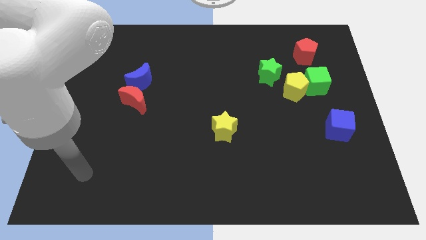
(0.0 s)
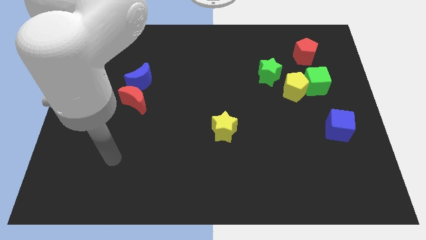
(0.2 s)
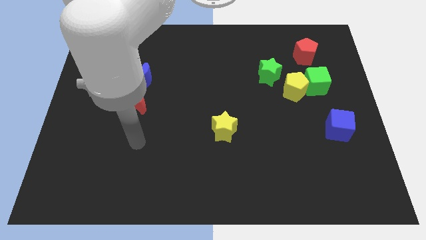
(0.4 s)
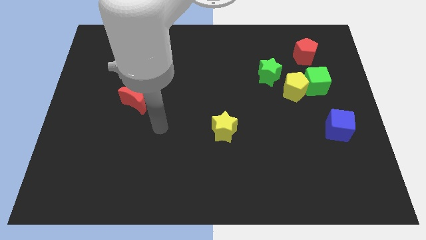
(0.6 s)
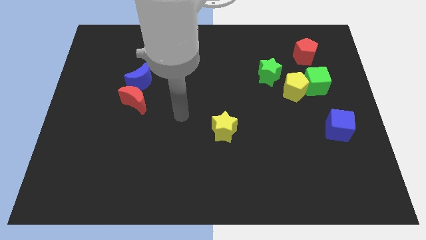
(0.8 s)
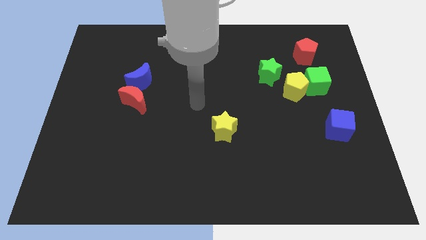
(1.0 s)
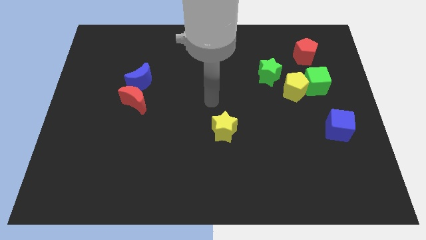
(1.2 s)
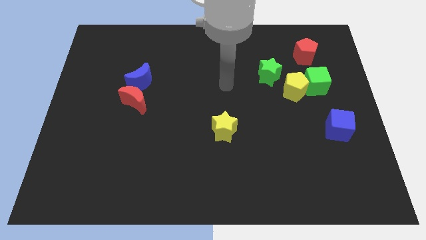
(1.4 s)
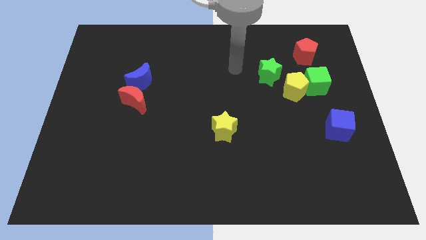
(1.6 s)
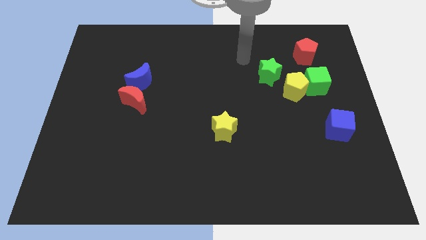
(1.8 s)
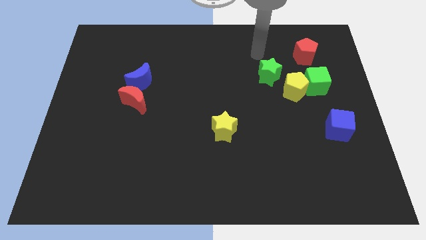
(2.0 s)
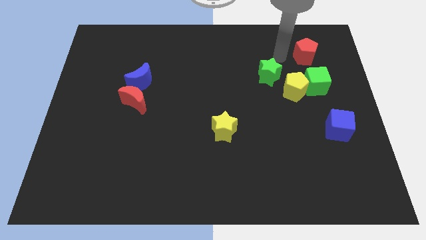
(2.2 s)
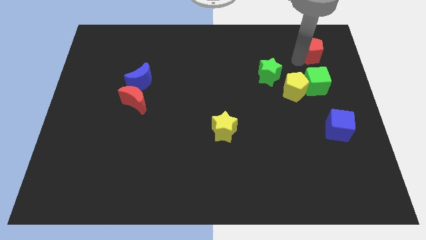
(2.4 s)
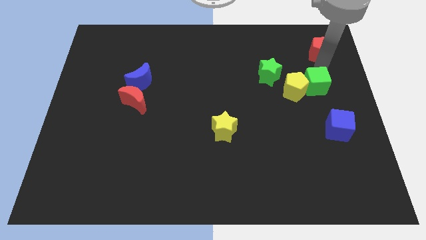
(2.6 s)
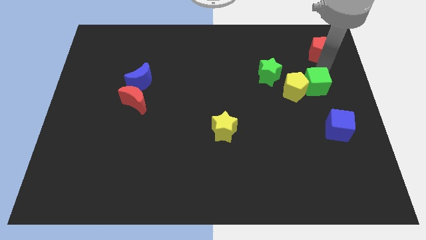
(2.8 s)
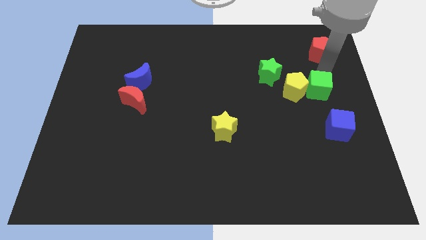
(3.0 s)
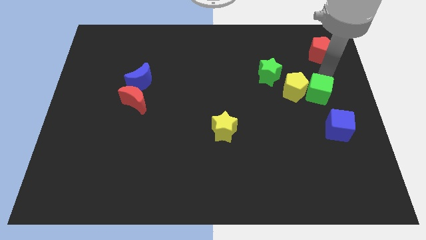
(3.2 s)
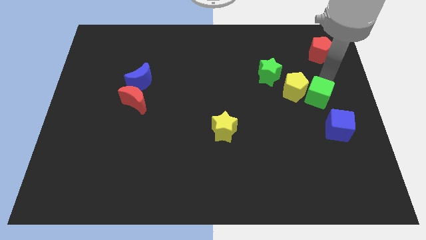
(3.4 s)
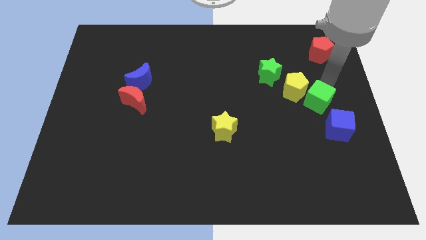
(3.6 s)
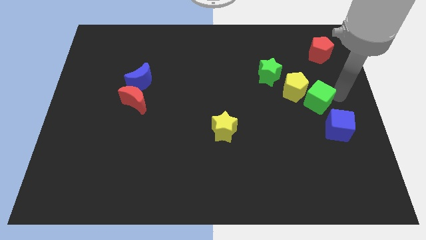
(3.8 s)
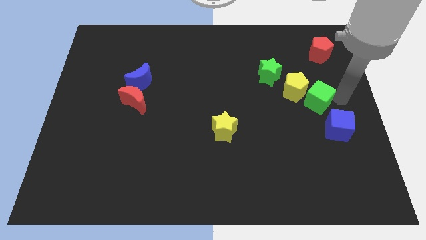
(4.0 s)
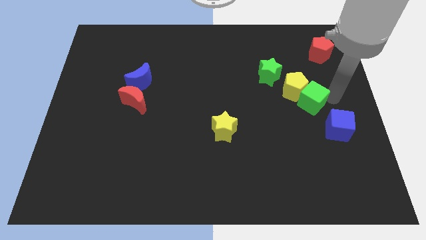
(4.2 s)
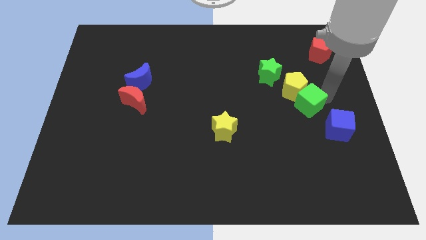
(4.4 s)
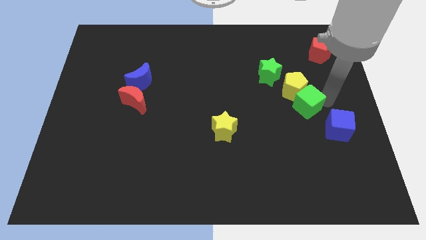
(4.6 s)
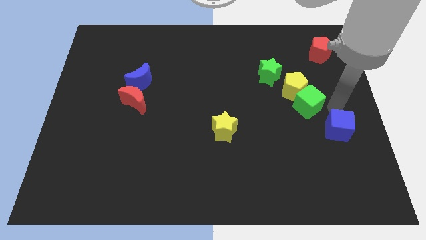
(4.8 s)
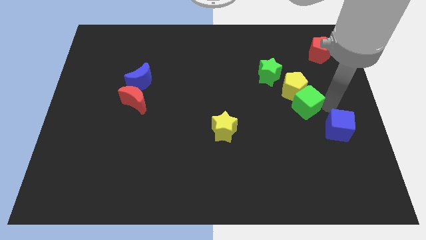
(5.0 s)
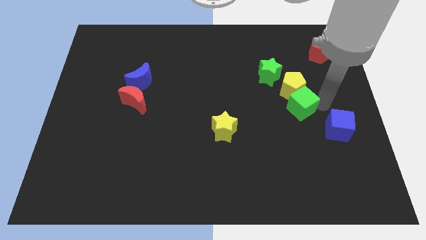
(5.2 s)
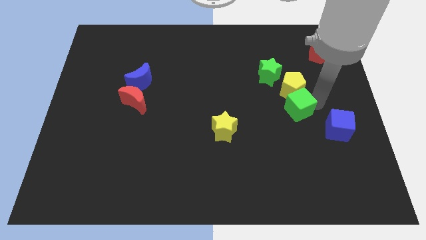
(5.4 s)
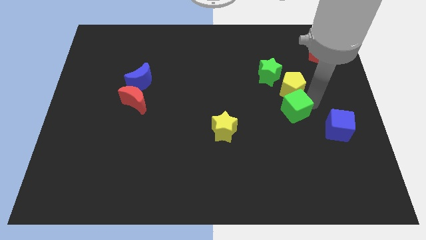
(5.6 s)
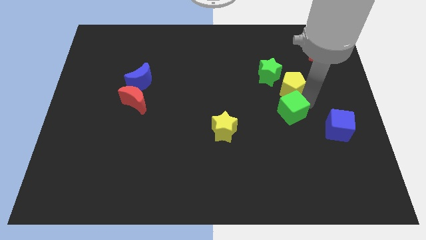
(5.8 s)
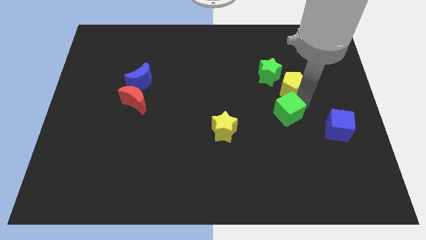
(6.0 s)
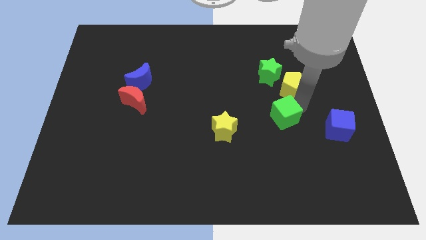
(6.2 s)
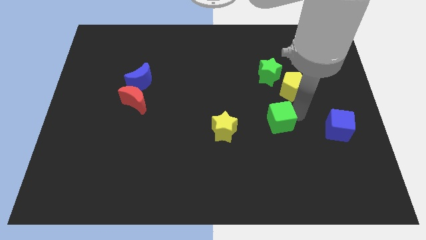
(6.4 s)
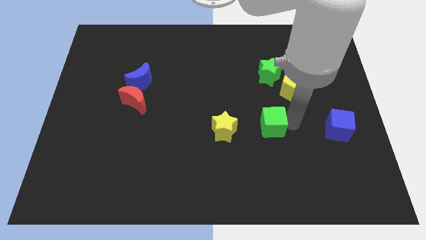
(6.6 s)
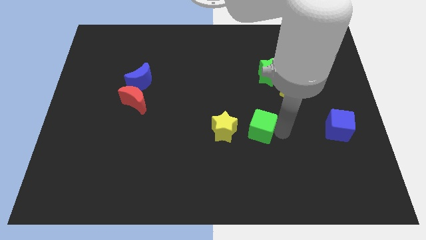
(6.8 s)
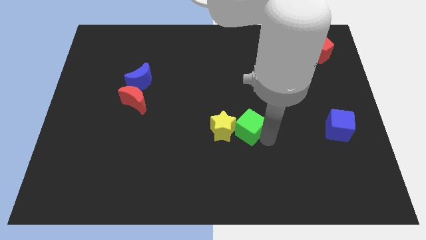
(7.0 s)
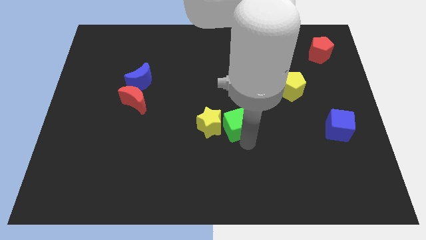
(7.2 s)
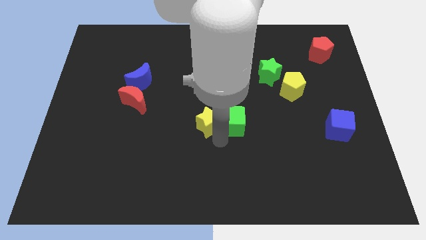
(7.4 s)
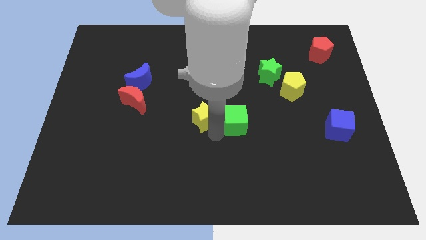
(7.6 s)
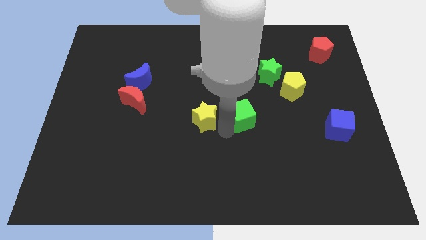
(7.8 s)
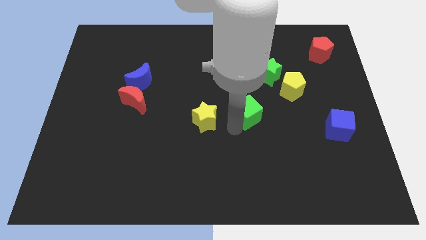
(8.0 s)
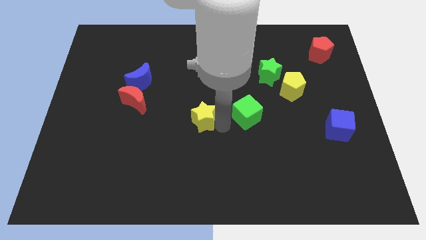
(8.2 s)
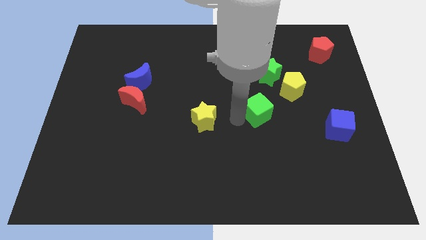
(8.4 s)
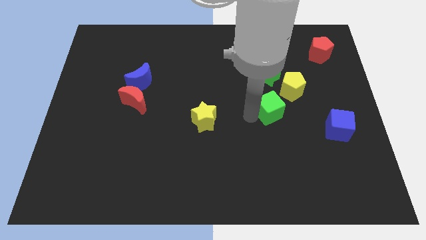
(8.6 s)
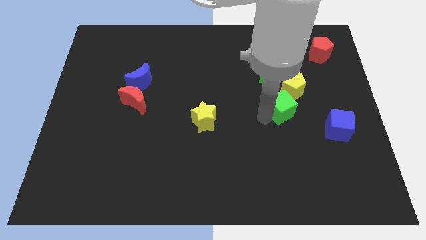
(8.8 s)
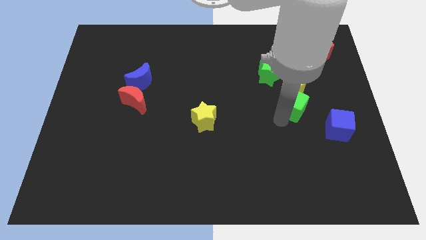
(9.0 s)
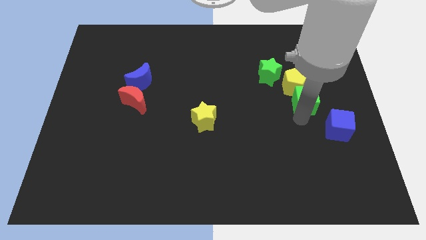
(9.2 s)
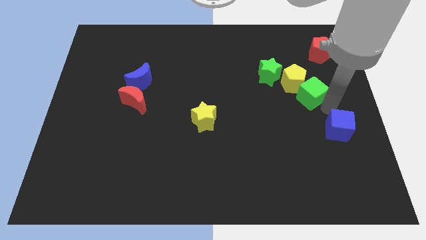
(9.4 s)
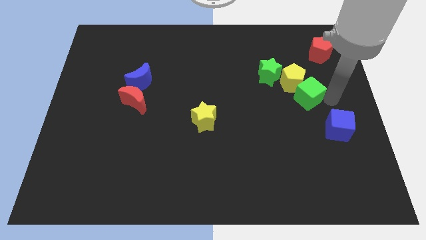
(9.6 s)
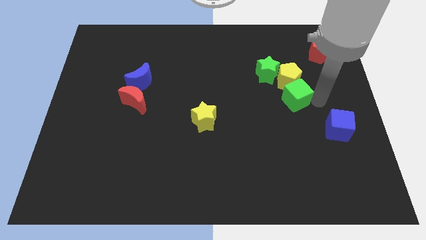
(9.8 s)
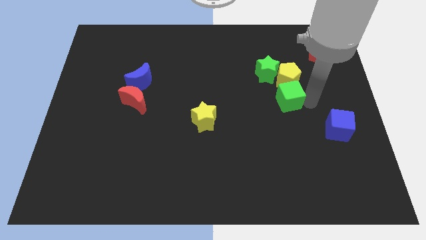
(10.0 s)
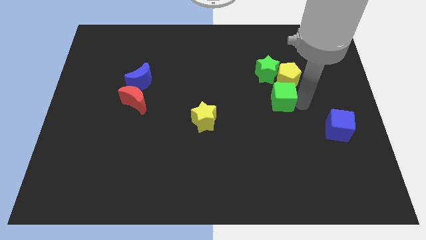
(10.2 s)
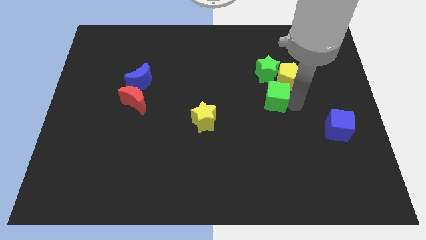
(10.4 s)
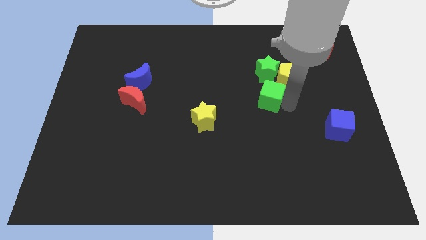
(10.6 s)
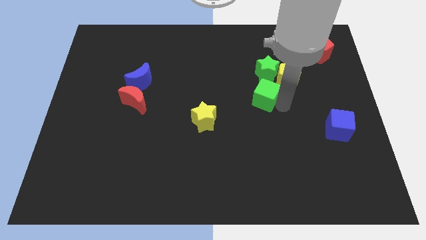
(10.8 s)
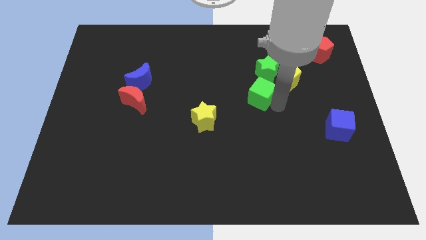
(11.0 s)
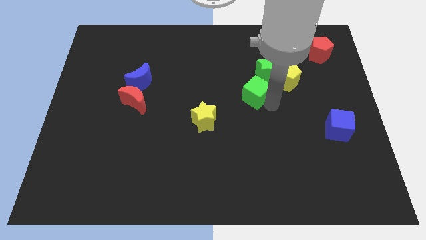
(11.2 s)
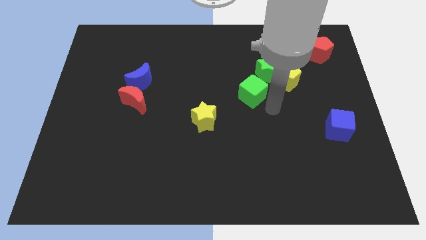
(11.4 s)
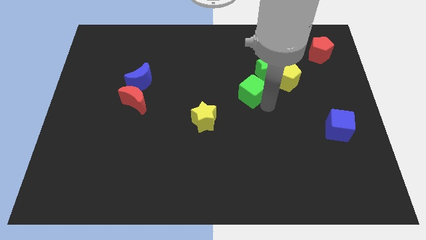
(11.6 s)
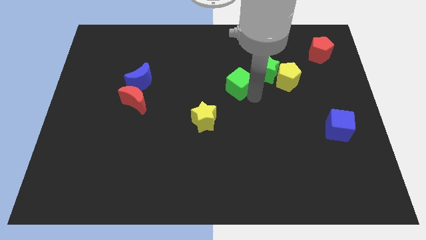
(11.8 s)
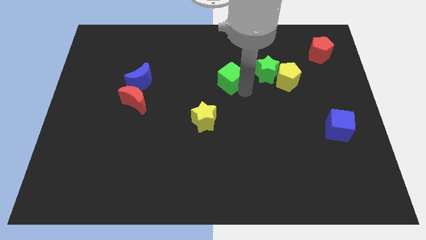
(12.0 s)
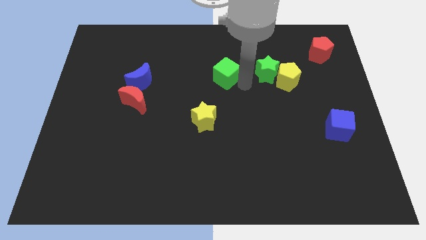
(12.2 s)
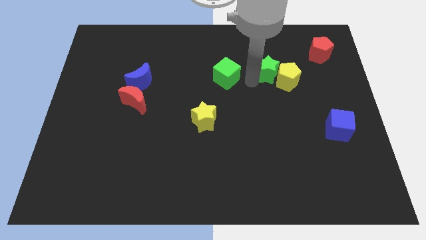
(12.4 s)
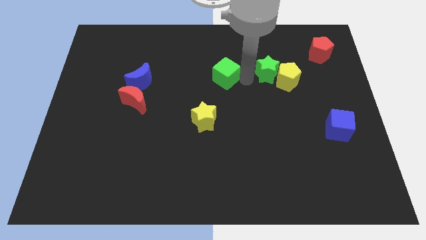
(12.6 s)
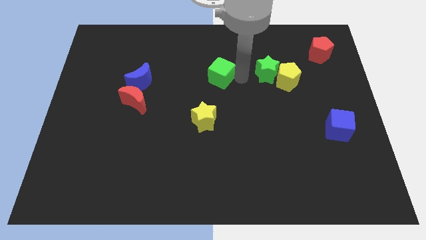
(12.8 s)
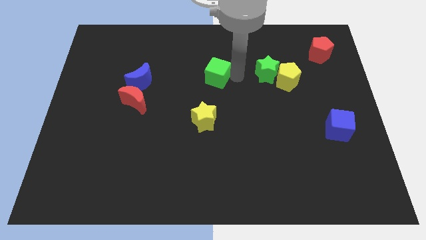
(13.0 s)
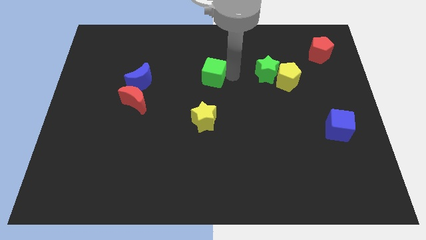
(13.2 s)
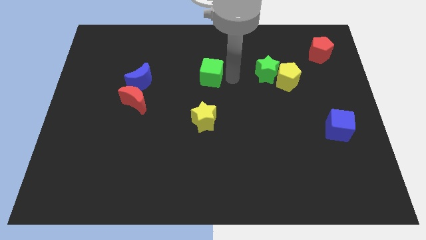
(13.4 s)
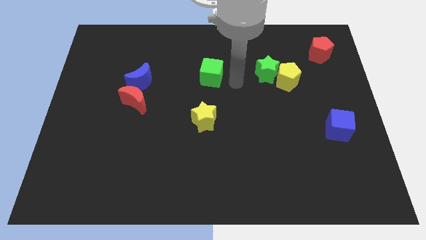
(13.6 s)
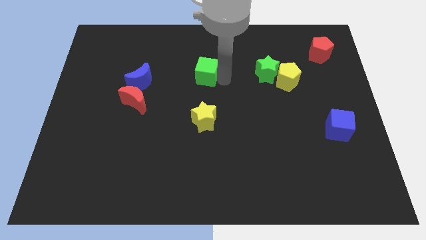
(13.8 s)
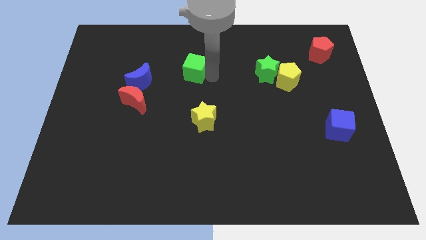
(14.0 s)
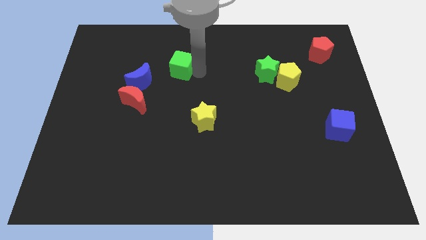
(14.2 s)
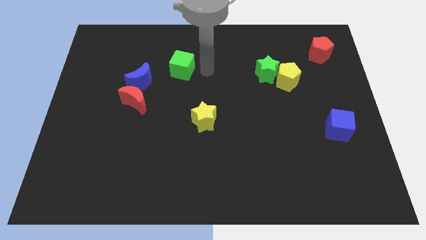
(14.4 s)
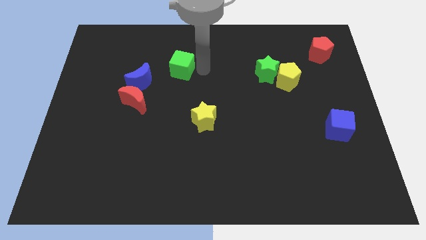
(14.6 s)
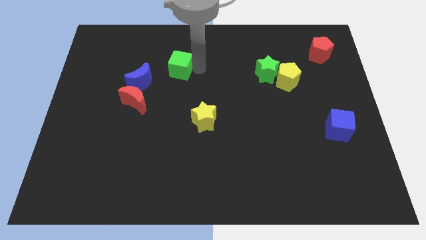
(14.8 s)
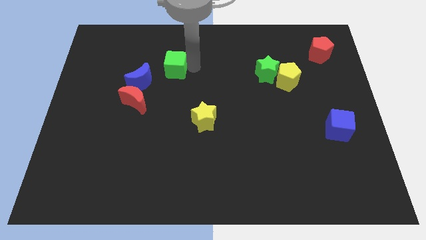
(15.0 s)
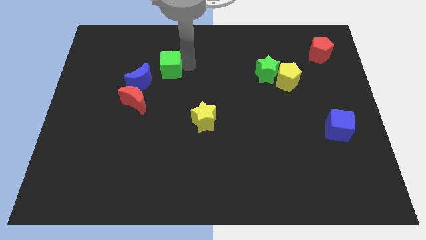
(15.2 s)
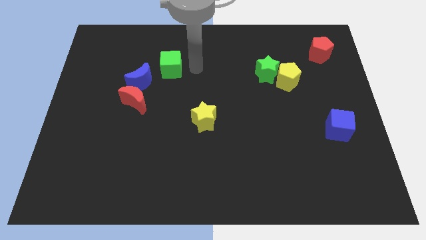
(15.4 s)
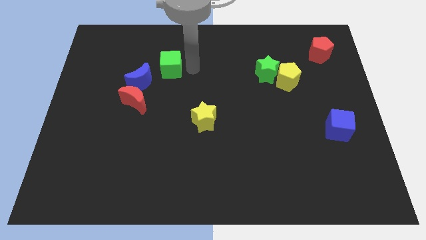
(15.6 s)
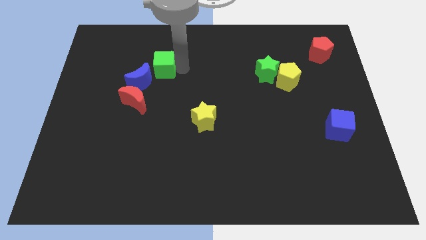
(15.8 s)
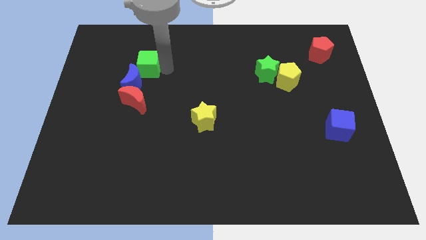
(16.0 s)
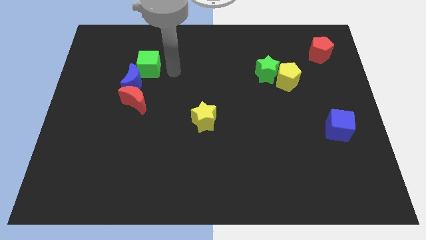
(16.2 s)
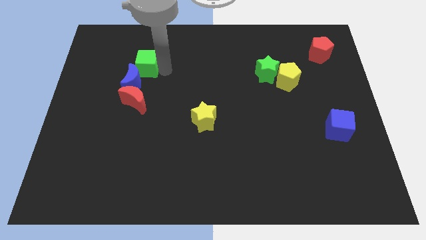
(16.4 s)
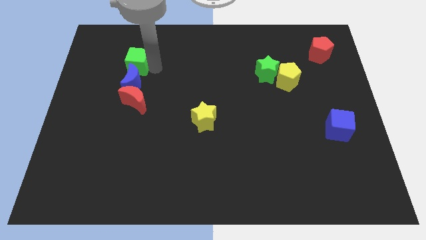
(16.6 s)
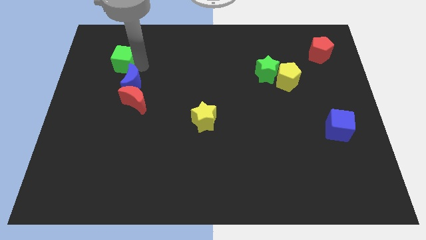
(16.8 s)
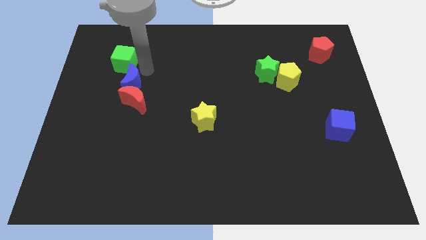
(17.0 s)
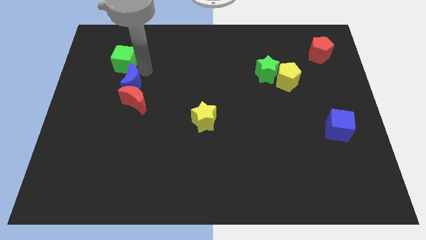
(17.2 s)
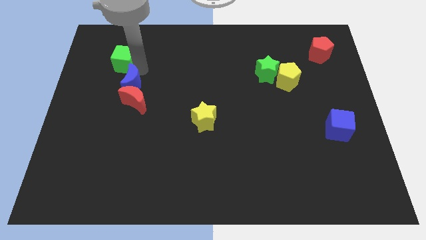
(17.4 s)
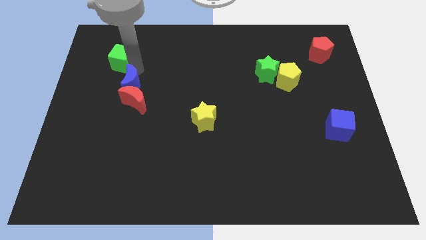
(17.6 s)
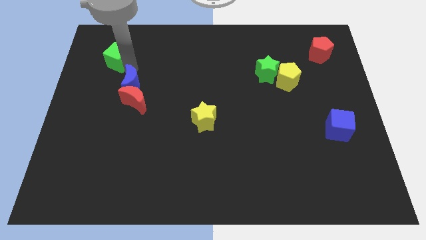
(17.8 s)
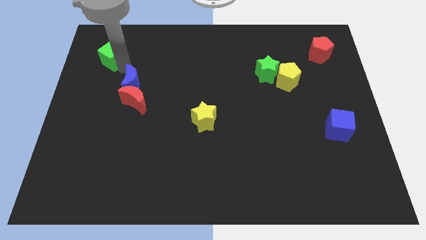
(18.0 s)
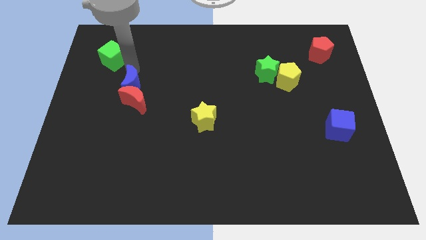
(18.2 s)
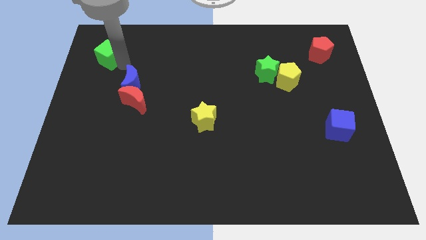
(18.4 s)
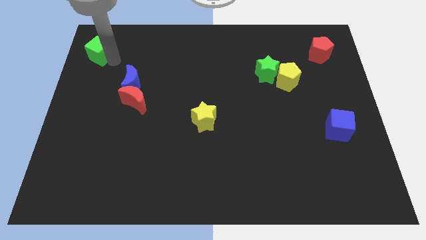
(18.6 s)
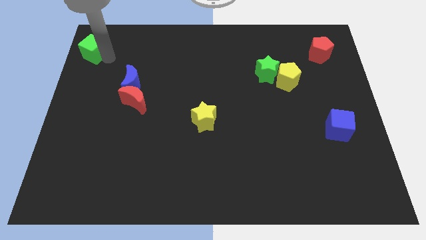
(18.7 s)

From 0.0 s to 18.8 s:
push the green cube to the top left of the board
